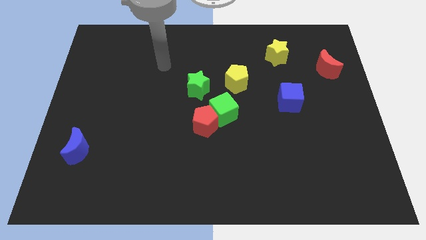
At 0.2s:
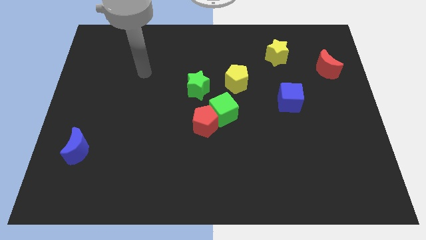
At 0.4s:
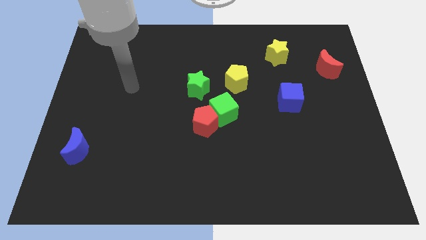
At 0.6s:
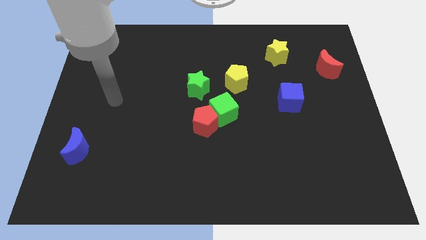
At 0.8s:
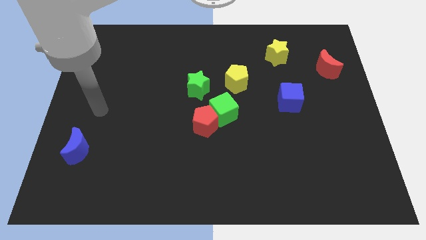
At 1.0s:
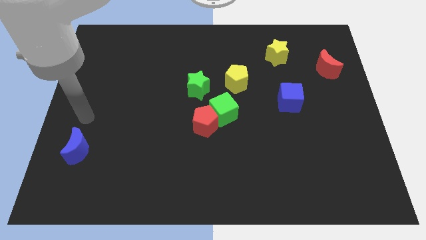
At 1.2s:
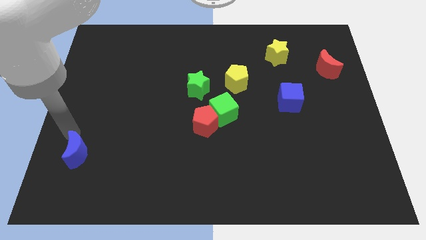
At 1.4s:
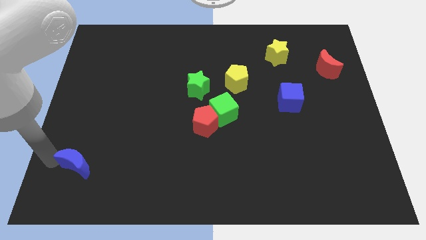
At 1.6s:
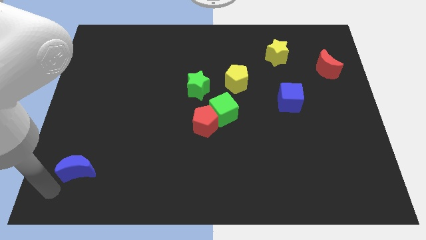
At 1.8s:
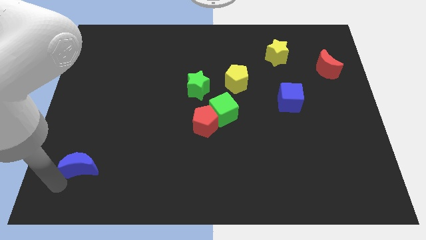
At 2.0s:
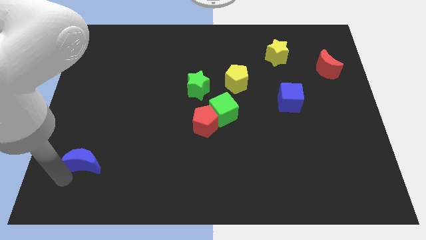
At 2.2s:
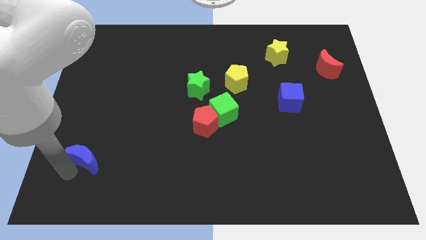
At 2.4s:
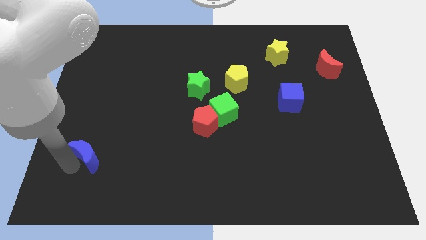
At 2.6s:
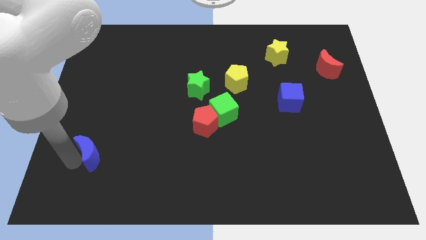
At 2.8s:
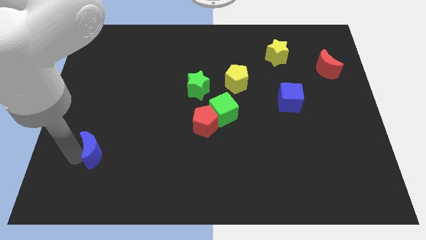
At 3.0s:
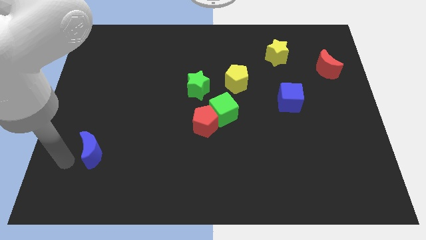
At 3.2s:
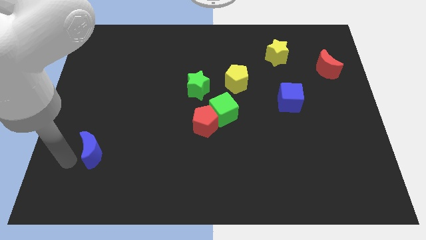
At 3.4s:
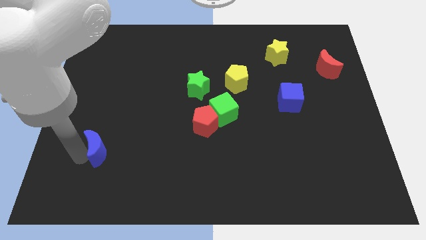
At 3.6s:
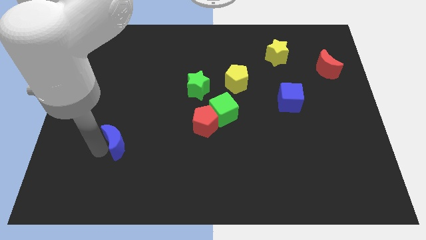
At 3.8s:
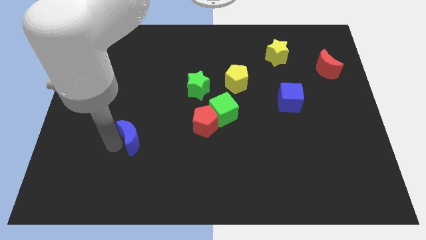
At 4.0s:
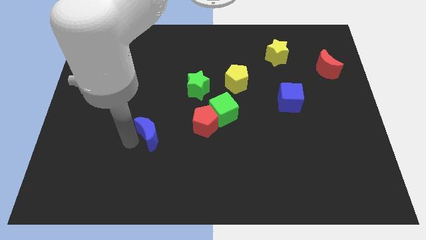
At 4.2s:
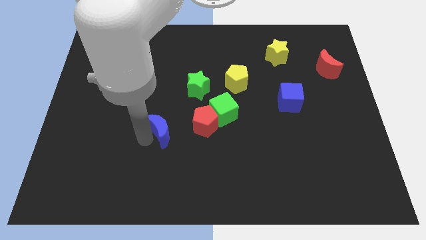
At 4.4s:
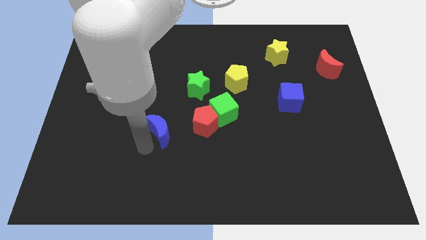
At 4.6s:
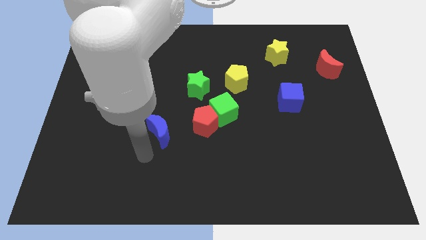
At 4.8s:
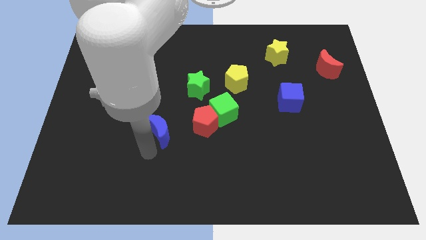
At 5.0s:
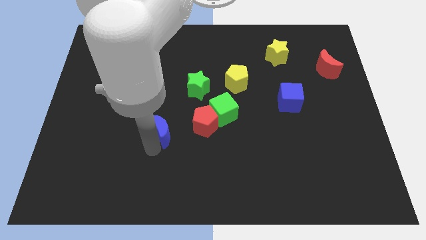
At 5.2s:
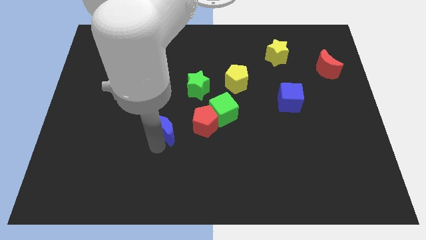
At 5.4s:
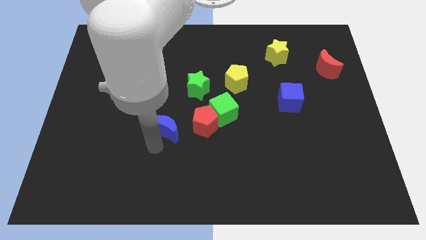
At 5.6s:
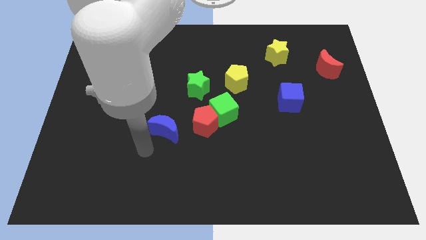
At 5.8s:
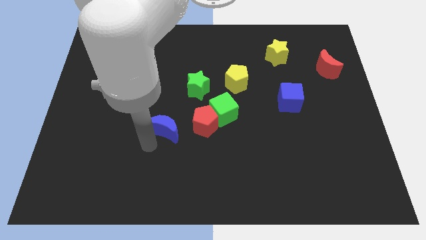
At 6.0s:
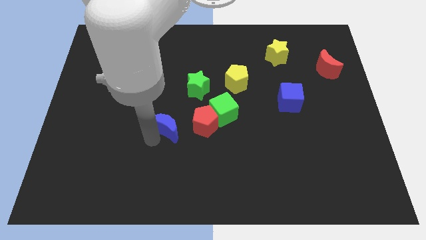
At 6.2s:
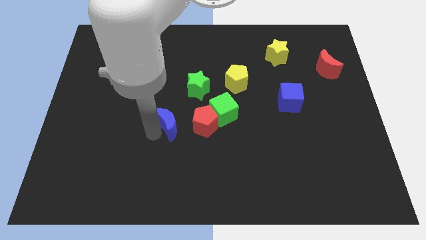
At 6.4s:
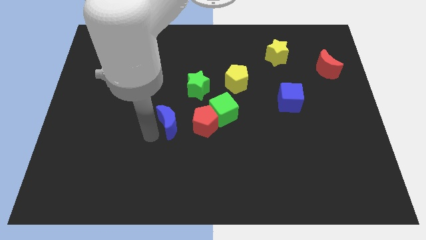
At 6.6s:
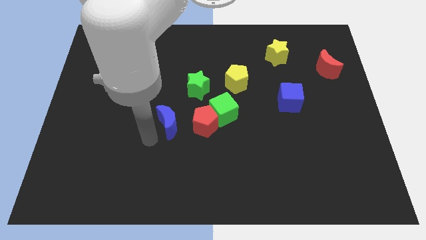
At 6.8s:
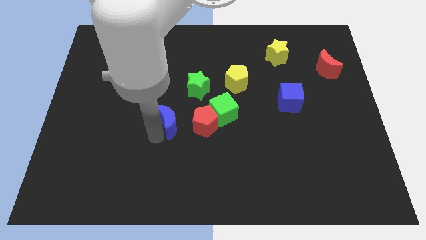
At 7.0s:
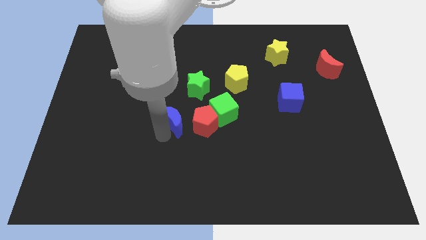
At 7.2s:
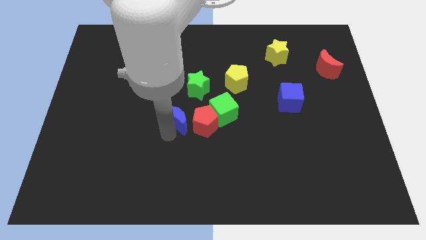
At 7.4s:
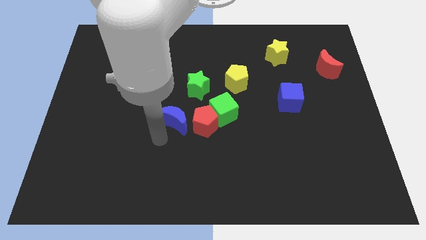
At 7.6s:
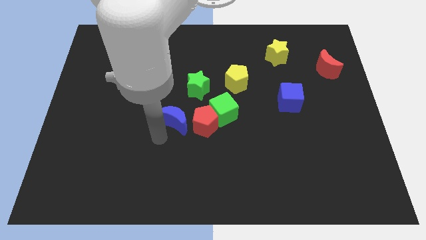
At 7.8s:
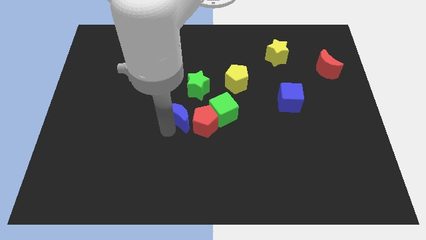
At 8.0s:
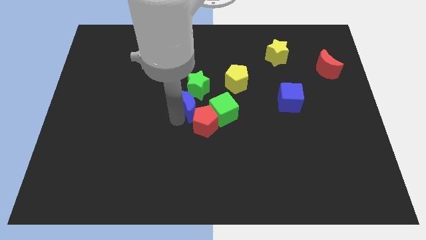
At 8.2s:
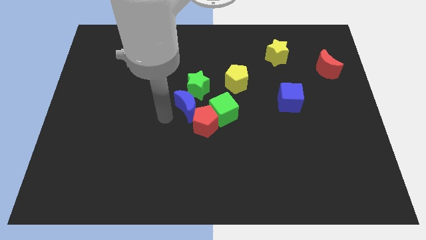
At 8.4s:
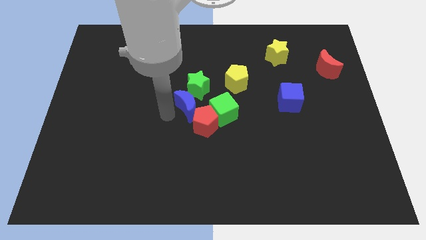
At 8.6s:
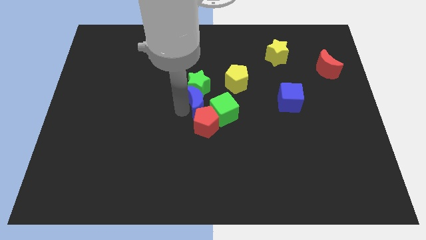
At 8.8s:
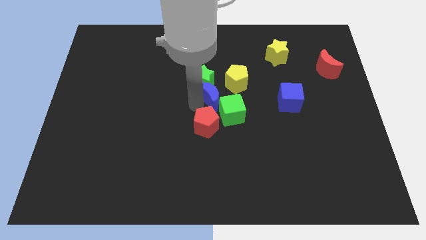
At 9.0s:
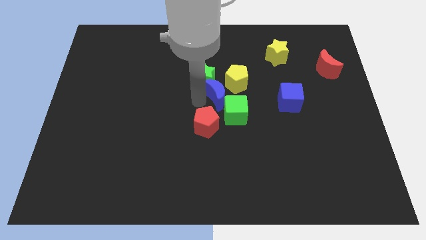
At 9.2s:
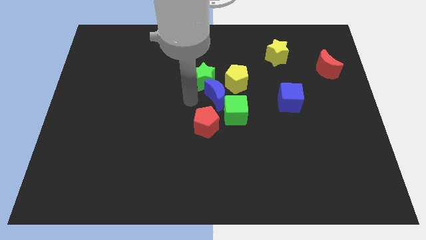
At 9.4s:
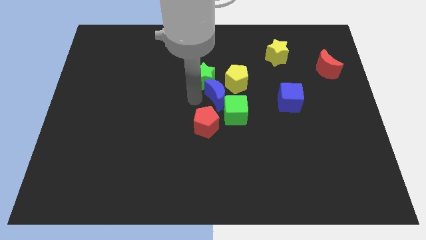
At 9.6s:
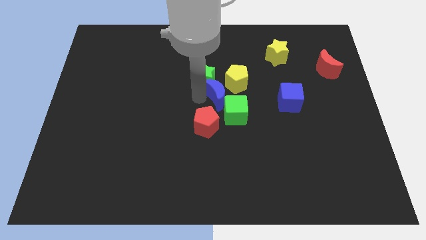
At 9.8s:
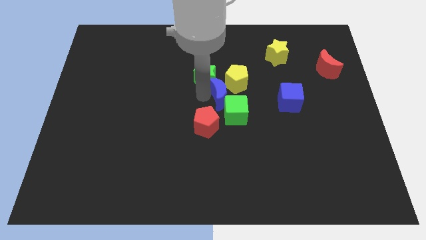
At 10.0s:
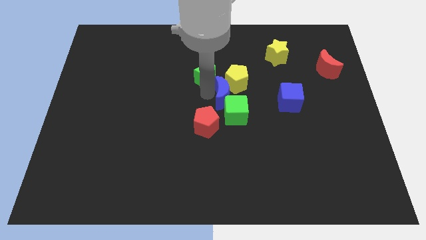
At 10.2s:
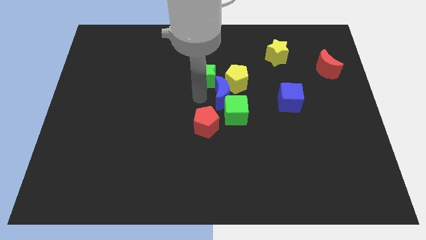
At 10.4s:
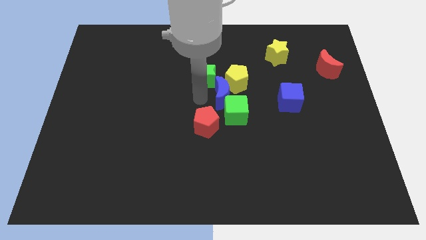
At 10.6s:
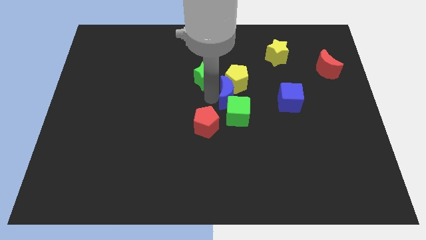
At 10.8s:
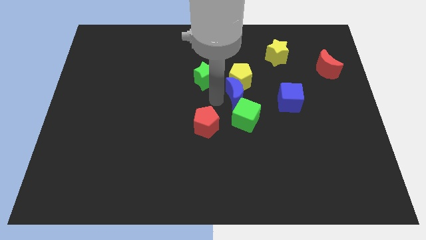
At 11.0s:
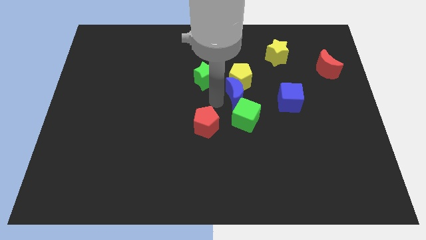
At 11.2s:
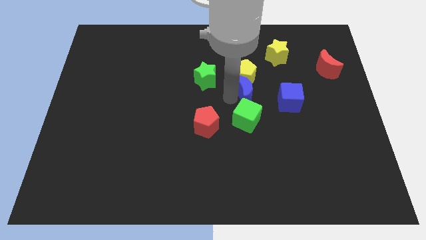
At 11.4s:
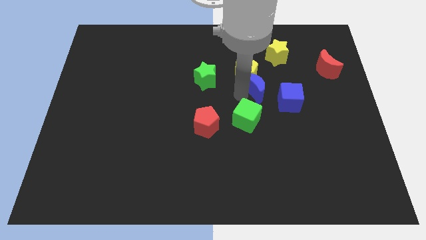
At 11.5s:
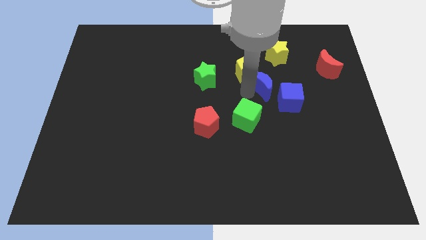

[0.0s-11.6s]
move the blue moon to the bottom of the yellow star

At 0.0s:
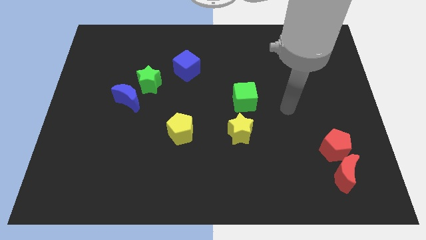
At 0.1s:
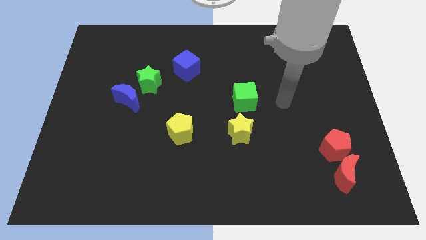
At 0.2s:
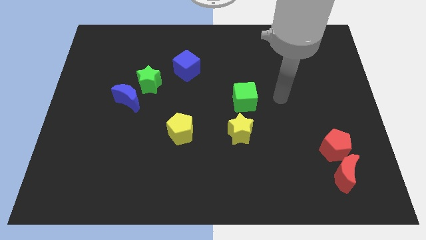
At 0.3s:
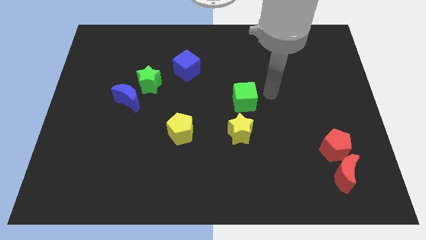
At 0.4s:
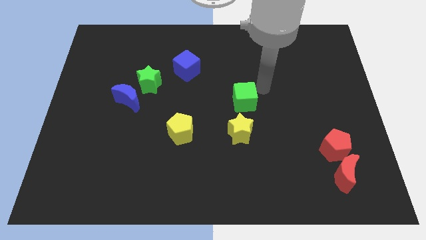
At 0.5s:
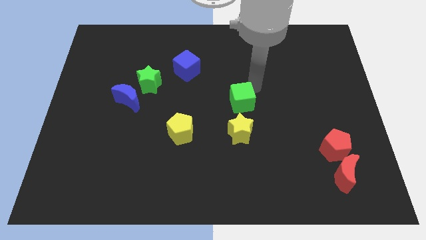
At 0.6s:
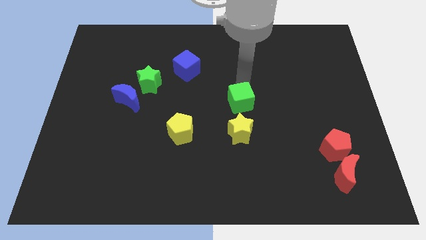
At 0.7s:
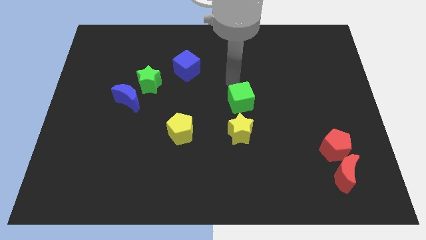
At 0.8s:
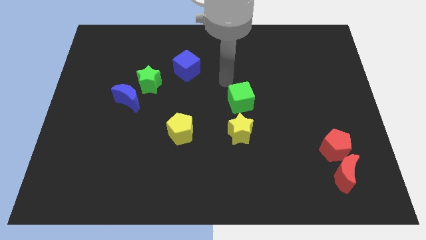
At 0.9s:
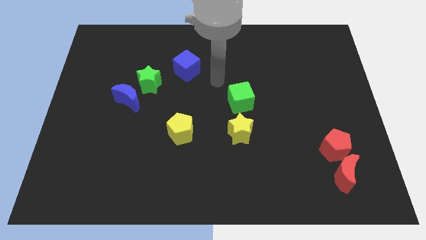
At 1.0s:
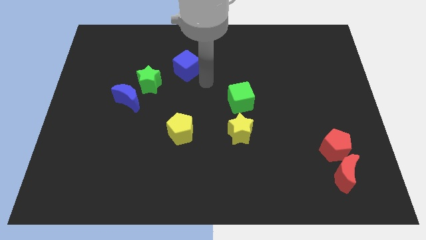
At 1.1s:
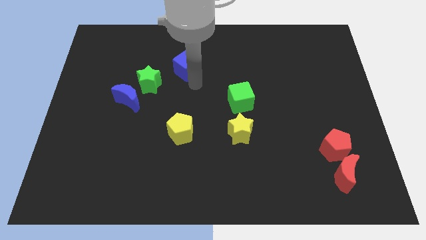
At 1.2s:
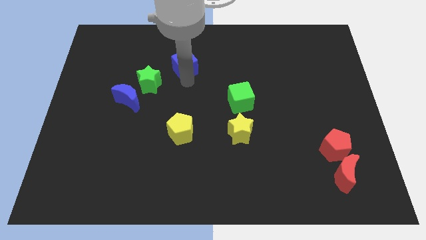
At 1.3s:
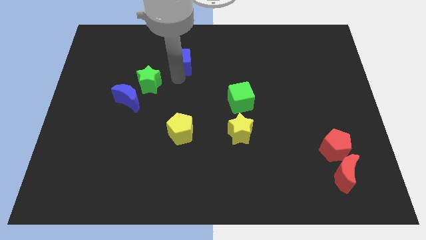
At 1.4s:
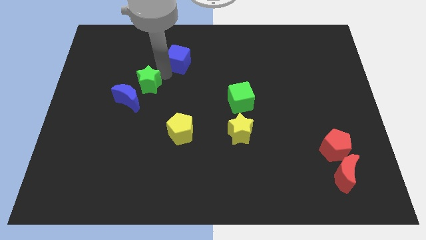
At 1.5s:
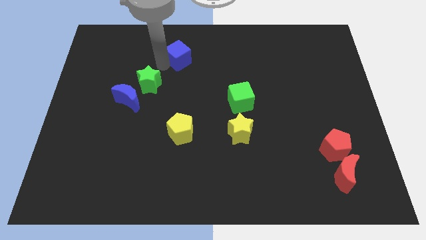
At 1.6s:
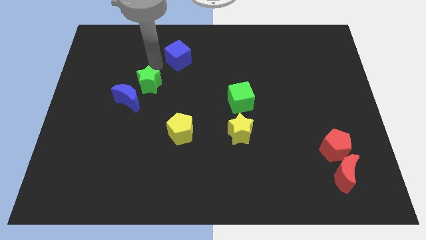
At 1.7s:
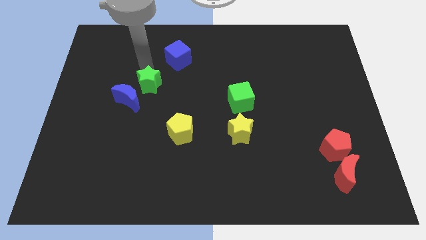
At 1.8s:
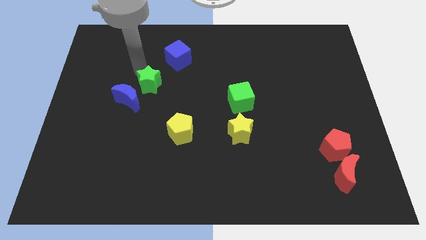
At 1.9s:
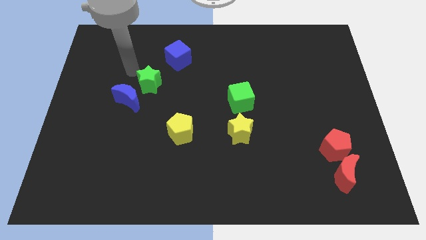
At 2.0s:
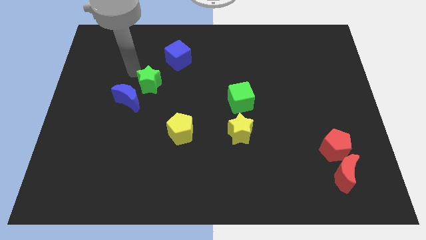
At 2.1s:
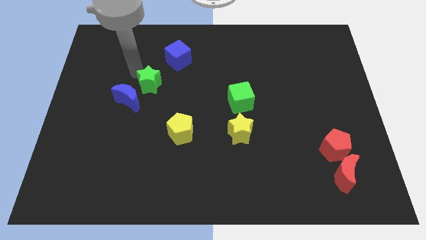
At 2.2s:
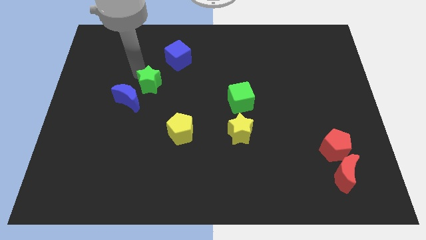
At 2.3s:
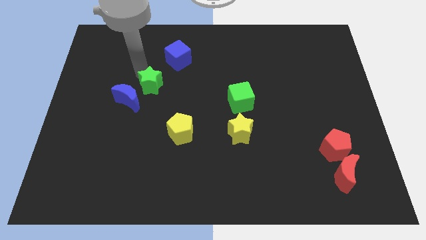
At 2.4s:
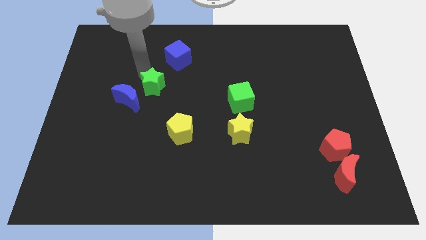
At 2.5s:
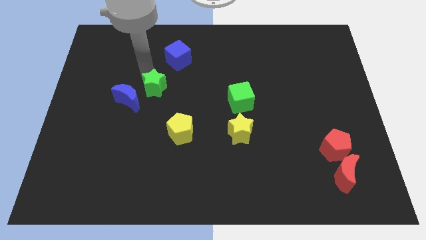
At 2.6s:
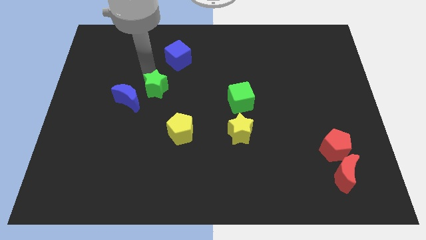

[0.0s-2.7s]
push the green star to the bottom side of the blue cube
